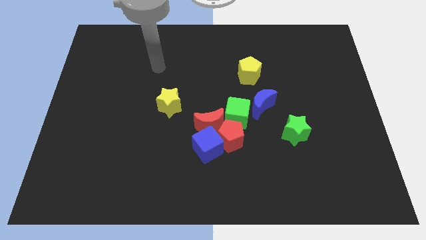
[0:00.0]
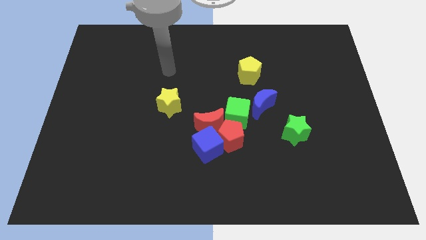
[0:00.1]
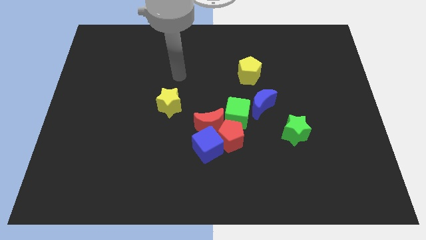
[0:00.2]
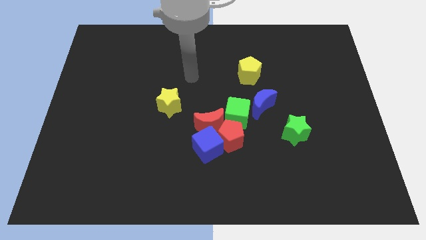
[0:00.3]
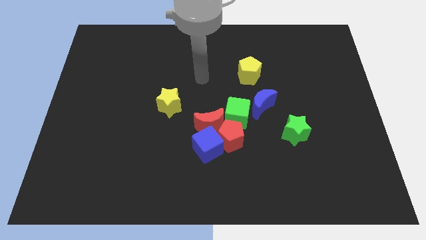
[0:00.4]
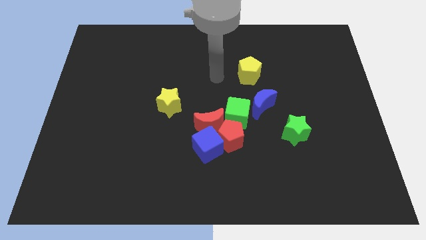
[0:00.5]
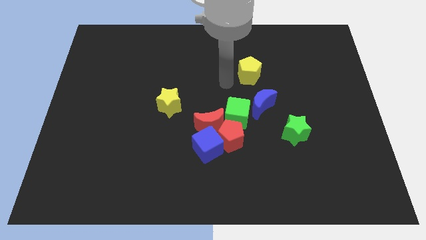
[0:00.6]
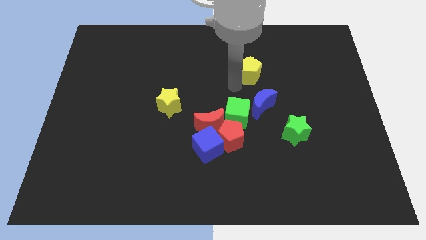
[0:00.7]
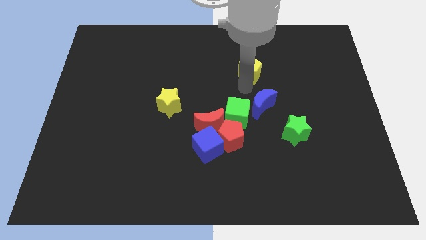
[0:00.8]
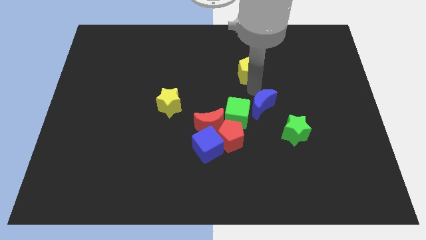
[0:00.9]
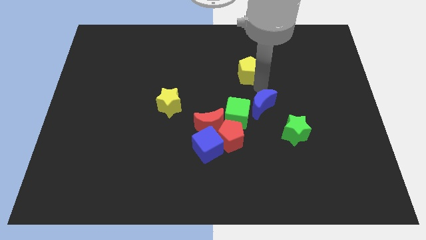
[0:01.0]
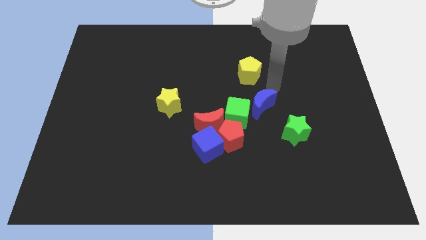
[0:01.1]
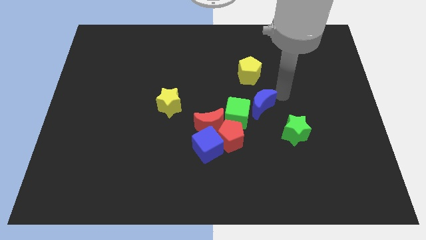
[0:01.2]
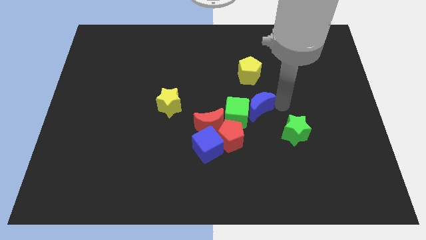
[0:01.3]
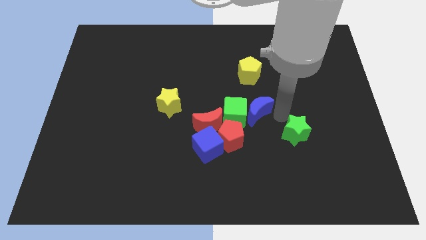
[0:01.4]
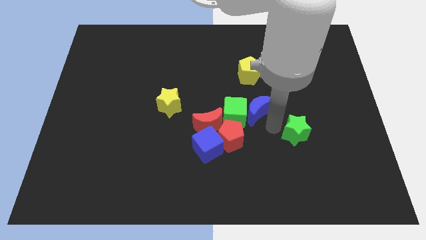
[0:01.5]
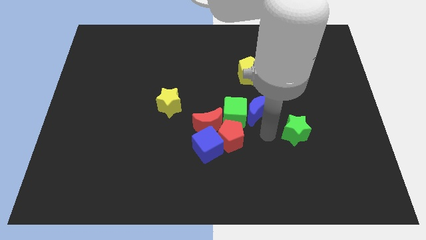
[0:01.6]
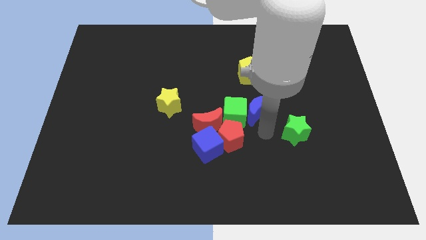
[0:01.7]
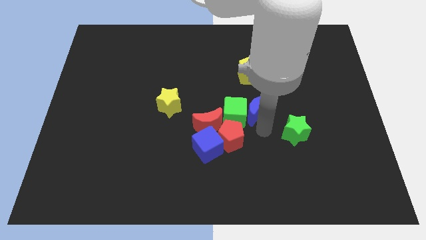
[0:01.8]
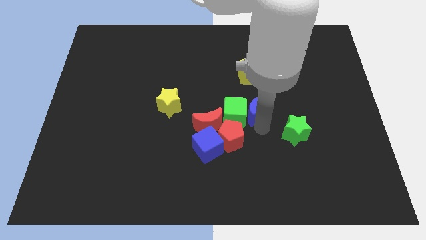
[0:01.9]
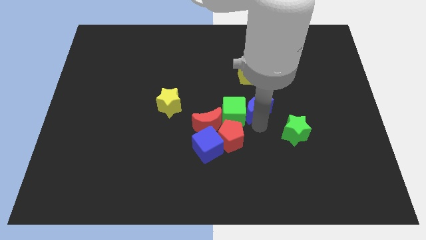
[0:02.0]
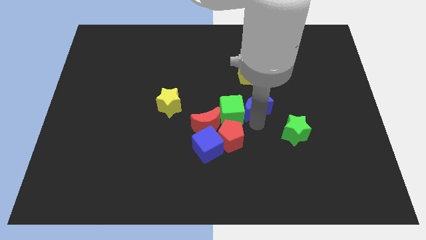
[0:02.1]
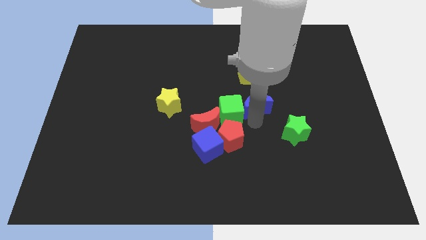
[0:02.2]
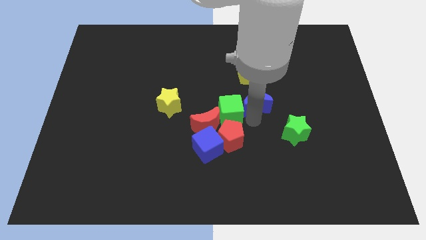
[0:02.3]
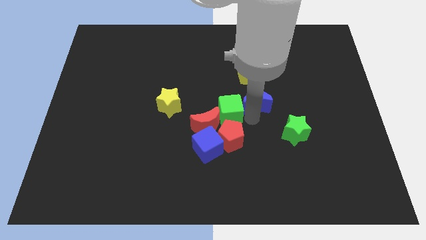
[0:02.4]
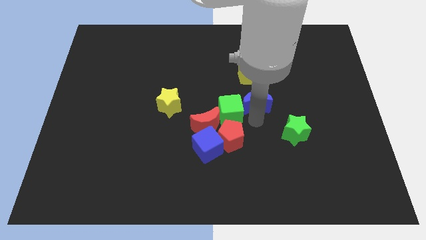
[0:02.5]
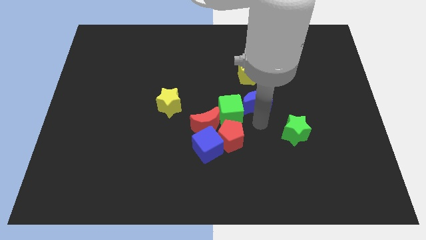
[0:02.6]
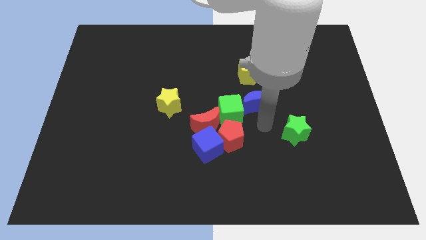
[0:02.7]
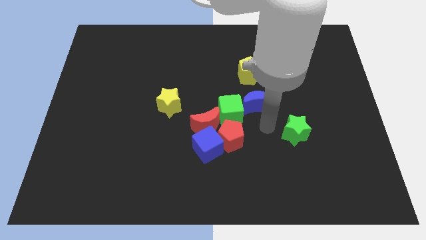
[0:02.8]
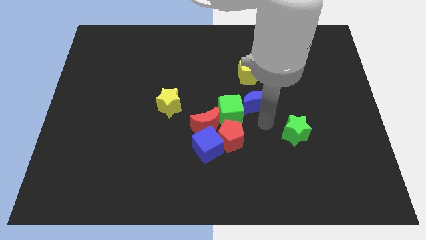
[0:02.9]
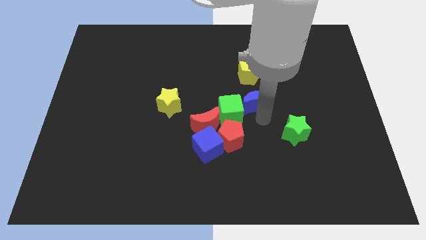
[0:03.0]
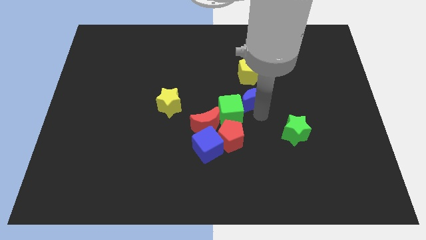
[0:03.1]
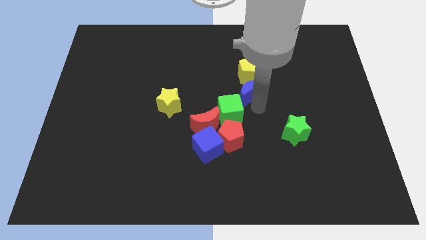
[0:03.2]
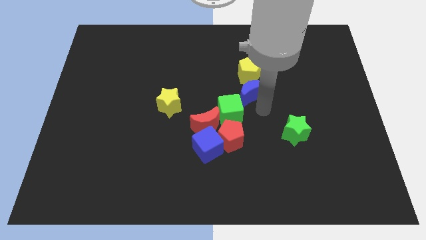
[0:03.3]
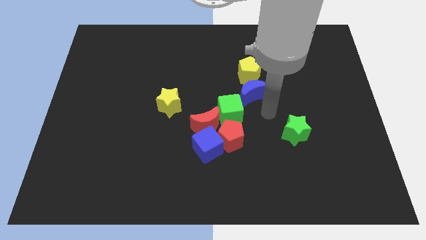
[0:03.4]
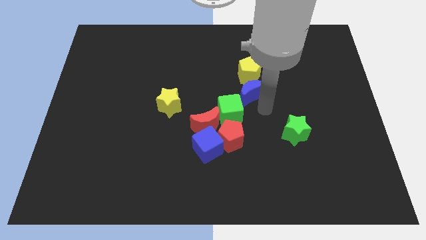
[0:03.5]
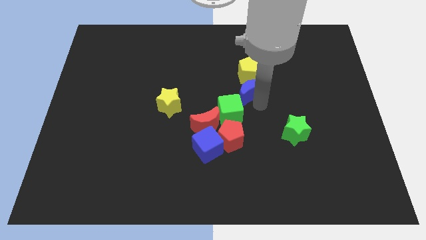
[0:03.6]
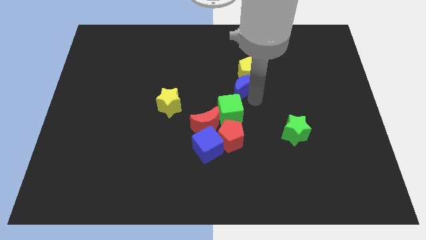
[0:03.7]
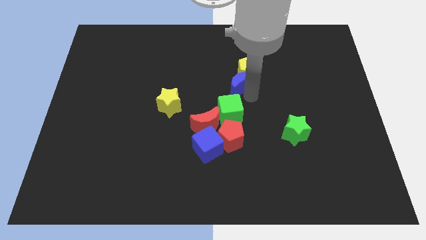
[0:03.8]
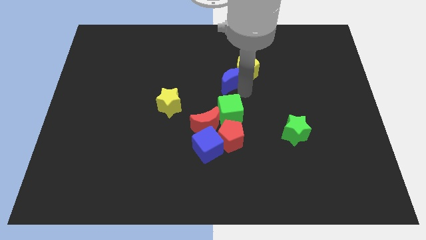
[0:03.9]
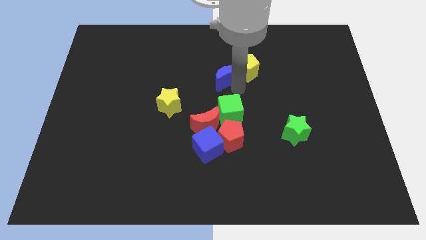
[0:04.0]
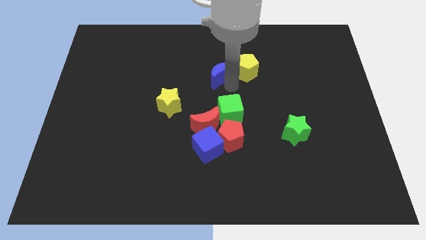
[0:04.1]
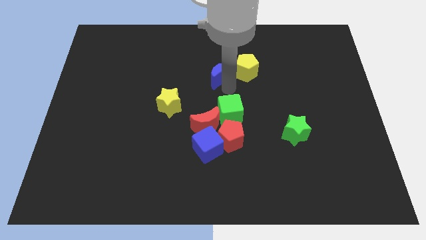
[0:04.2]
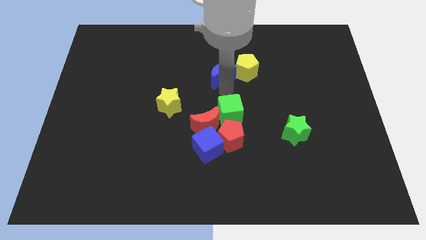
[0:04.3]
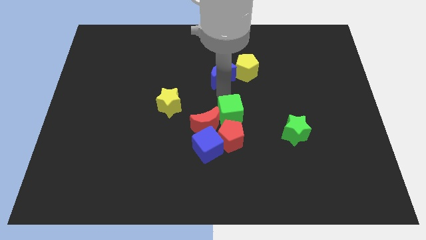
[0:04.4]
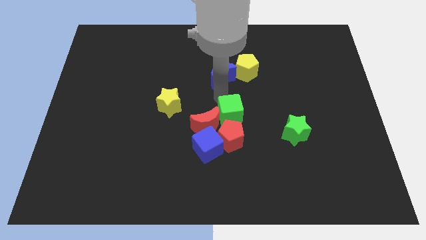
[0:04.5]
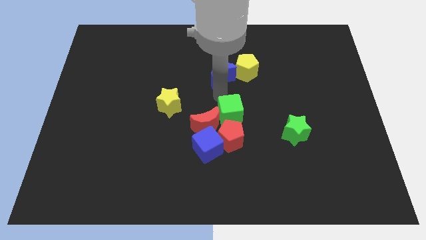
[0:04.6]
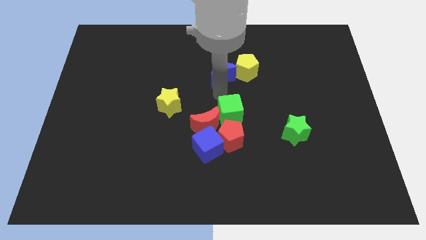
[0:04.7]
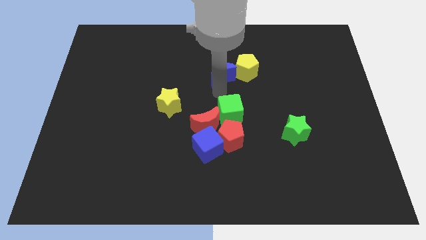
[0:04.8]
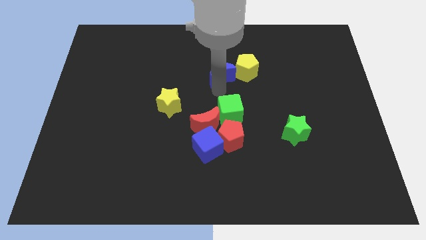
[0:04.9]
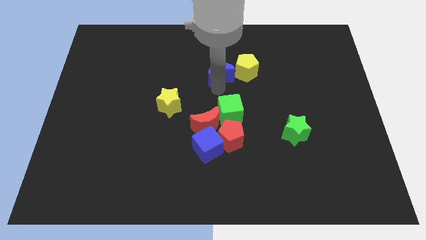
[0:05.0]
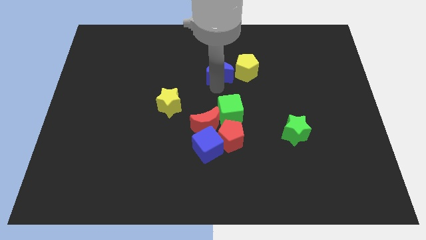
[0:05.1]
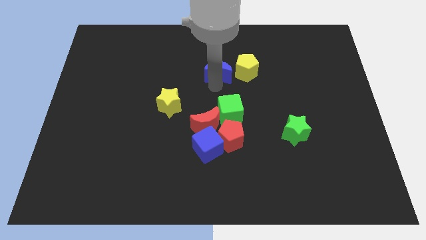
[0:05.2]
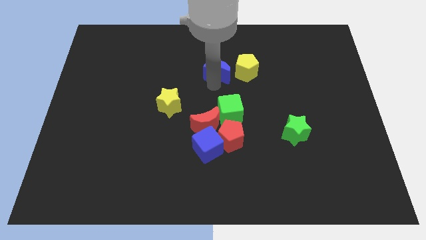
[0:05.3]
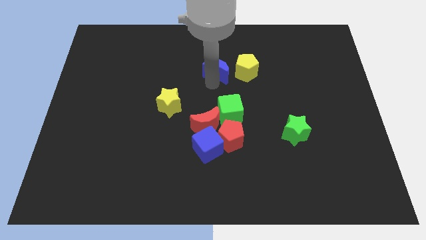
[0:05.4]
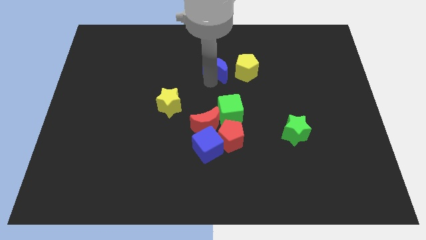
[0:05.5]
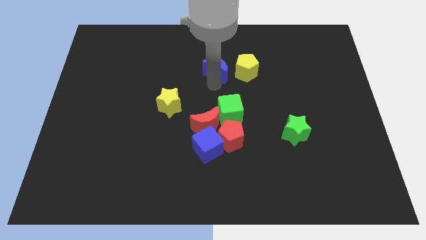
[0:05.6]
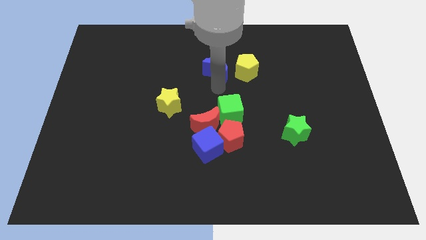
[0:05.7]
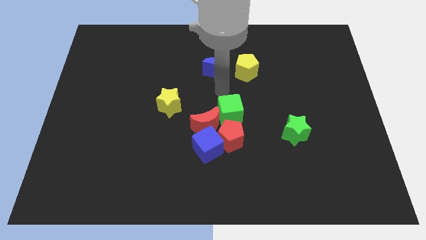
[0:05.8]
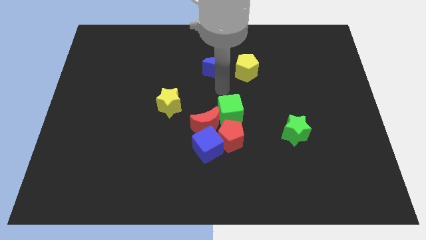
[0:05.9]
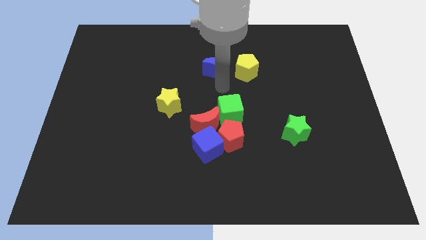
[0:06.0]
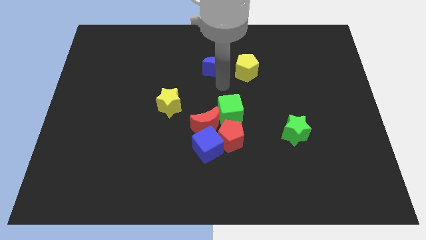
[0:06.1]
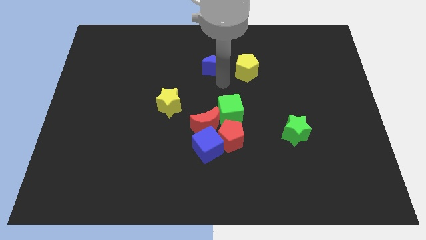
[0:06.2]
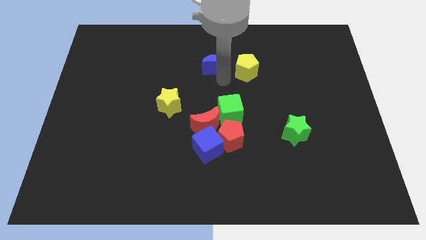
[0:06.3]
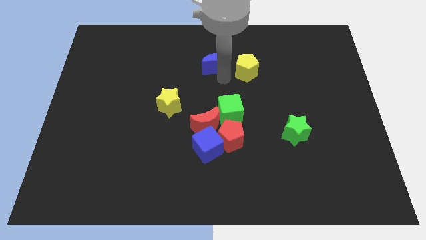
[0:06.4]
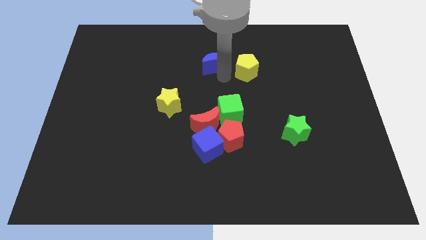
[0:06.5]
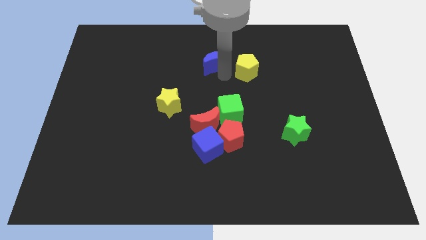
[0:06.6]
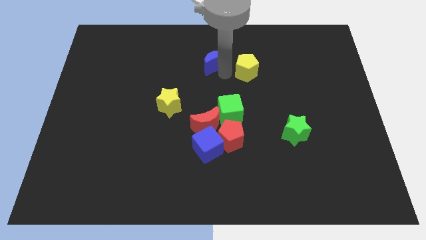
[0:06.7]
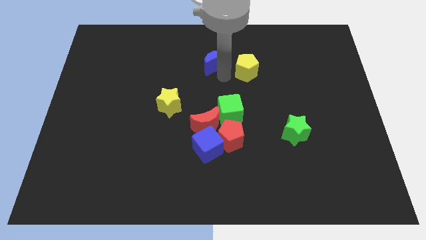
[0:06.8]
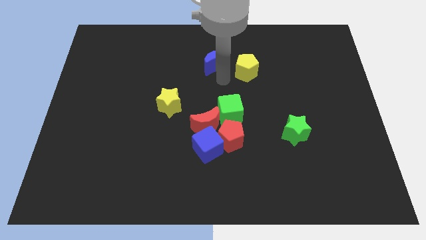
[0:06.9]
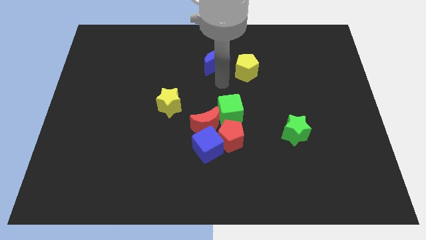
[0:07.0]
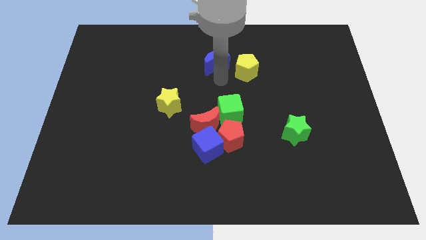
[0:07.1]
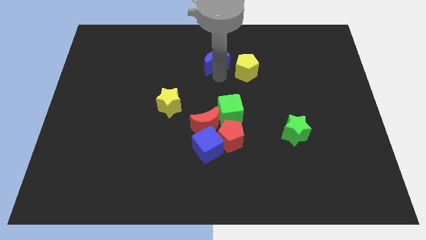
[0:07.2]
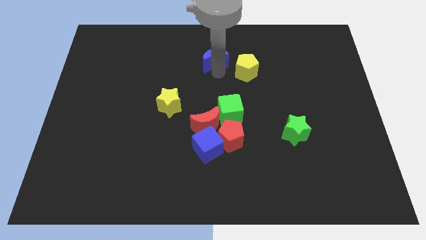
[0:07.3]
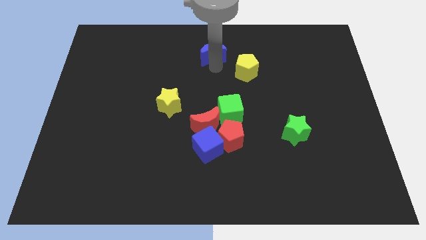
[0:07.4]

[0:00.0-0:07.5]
put the blue moon to the top side
